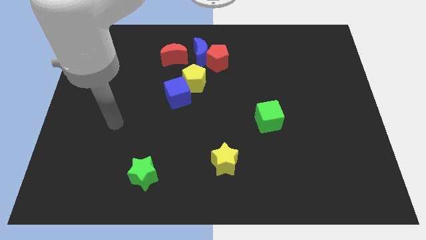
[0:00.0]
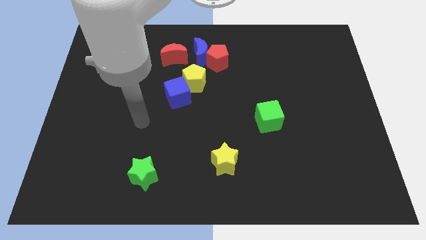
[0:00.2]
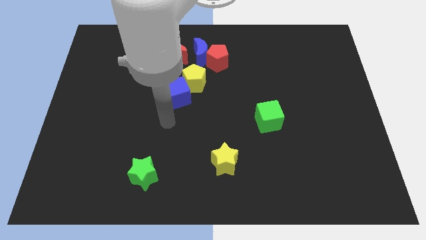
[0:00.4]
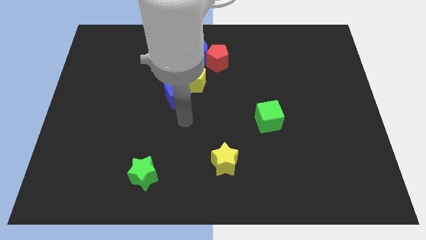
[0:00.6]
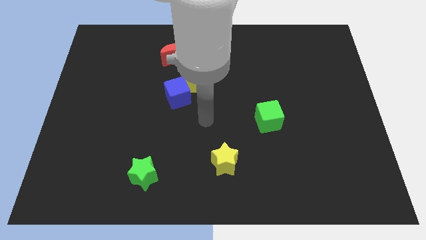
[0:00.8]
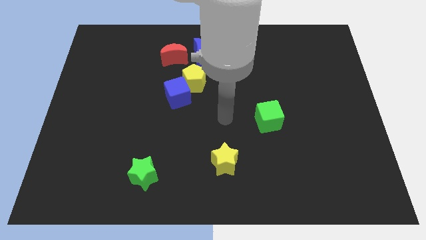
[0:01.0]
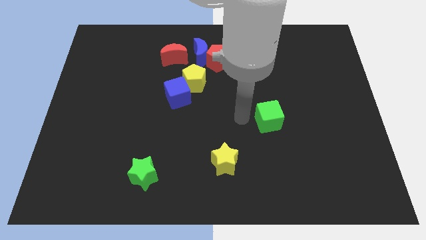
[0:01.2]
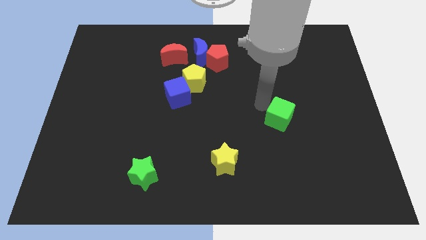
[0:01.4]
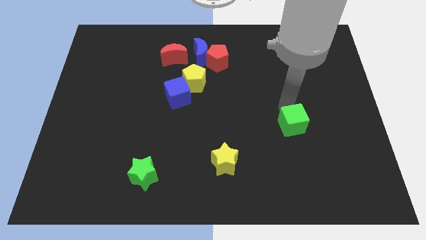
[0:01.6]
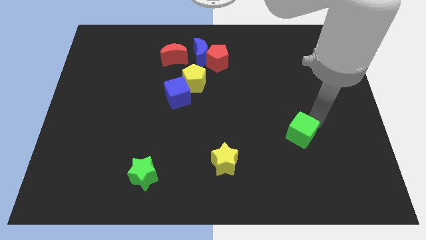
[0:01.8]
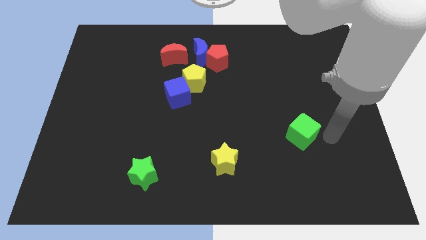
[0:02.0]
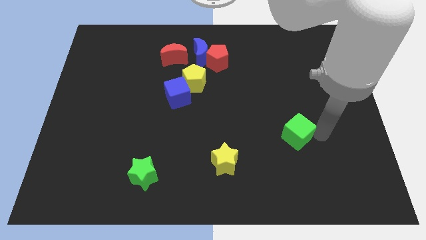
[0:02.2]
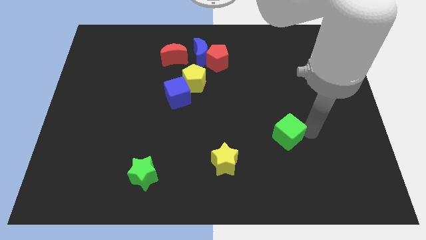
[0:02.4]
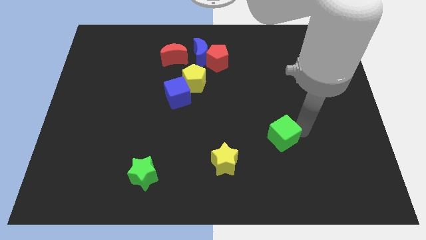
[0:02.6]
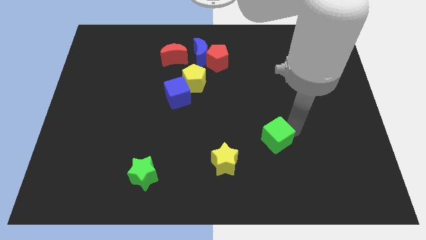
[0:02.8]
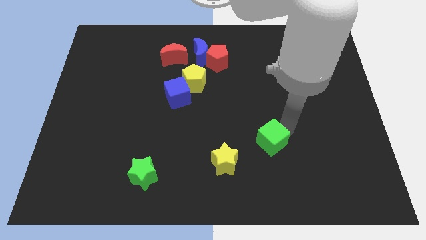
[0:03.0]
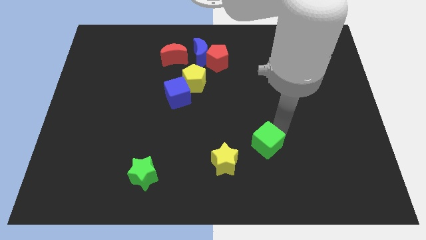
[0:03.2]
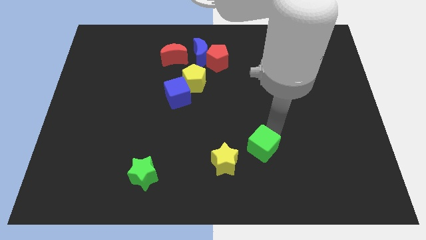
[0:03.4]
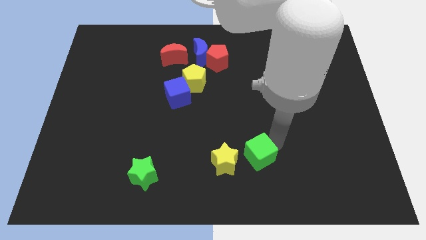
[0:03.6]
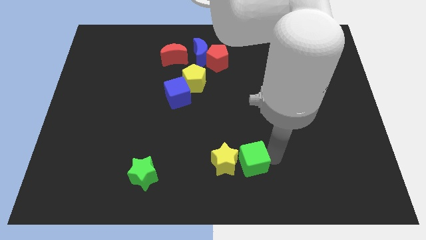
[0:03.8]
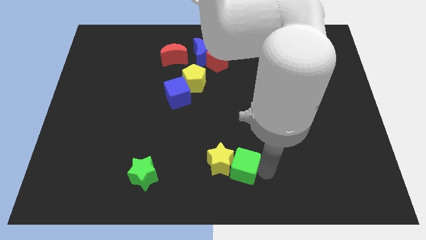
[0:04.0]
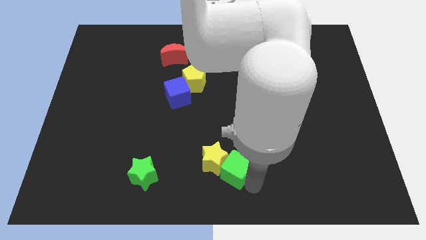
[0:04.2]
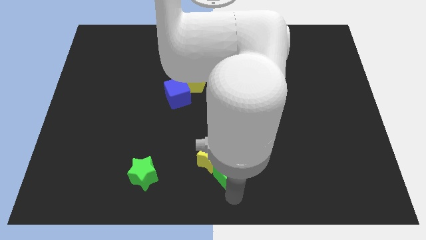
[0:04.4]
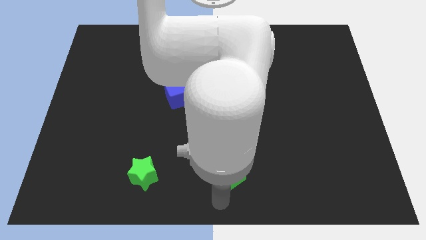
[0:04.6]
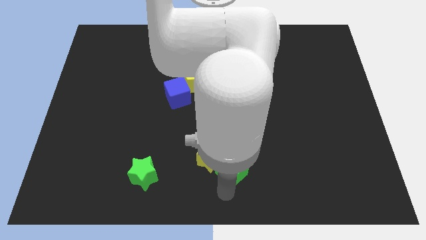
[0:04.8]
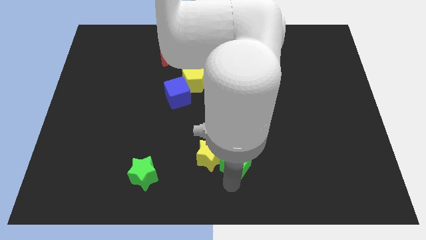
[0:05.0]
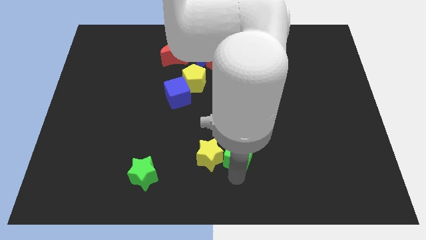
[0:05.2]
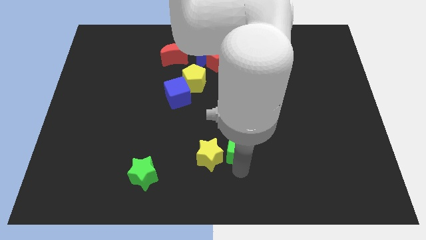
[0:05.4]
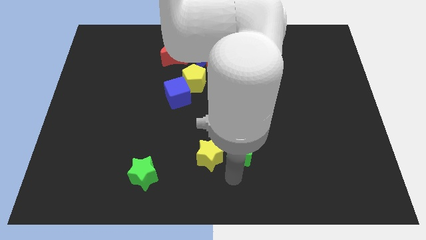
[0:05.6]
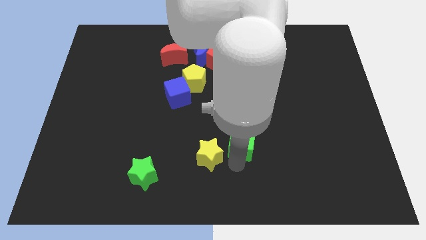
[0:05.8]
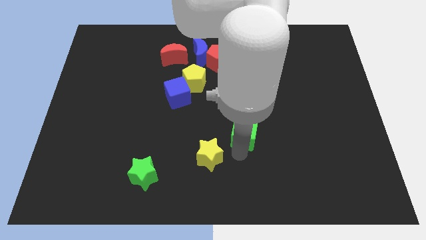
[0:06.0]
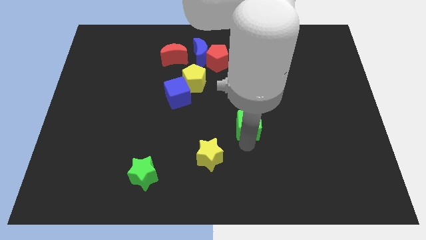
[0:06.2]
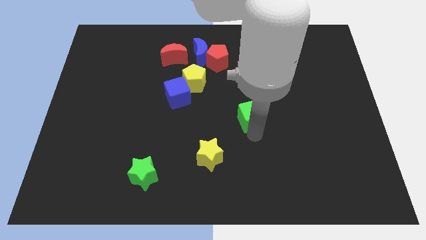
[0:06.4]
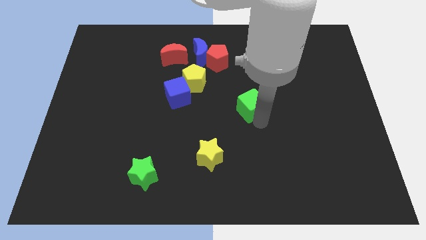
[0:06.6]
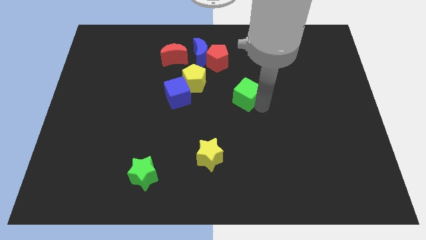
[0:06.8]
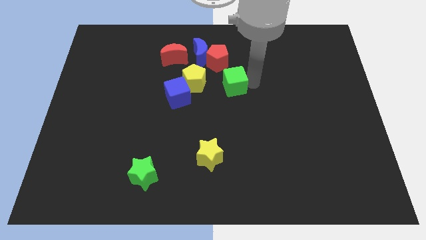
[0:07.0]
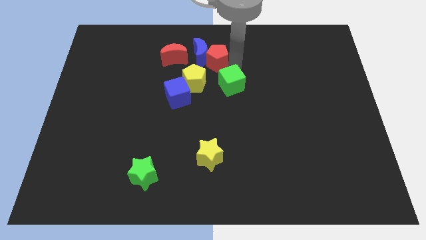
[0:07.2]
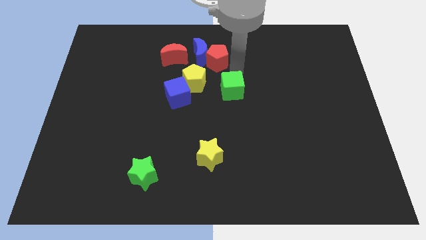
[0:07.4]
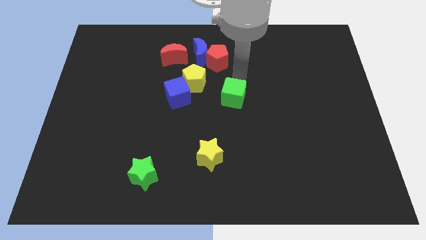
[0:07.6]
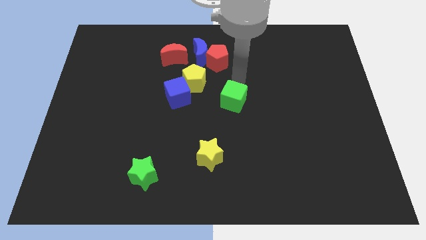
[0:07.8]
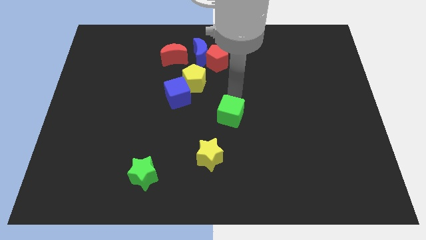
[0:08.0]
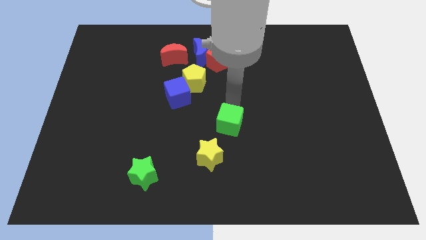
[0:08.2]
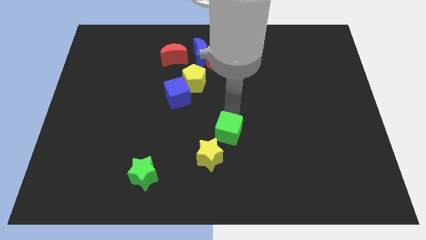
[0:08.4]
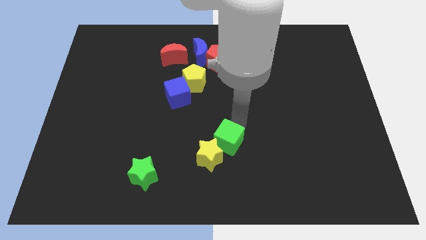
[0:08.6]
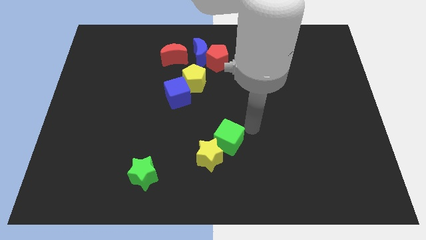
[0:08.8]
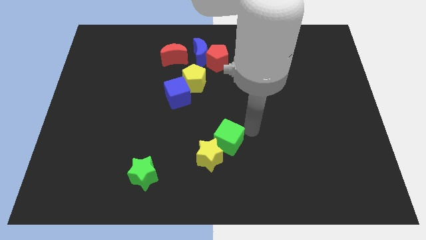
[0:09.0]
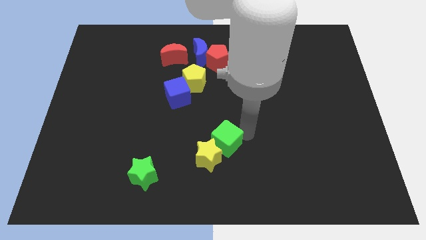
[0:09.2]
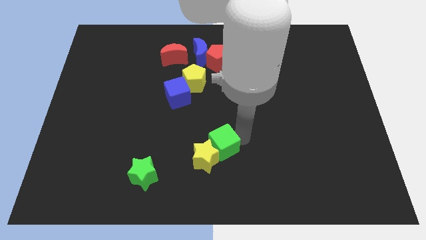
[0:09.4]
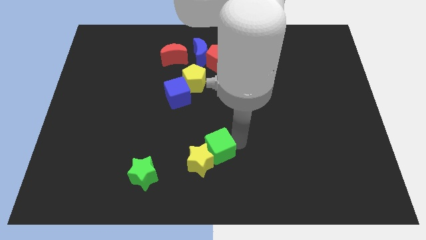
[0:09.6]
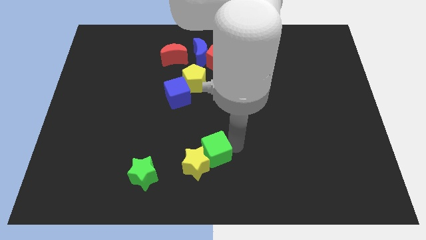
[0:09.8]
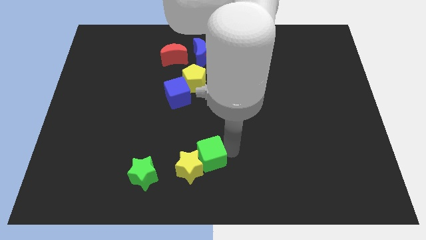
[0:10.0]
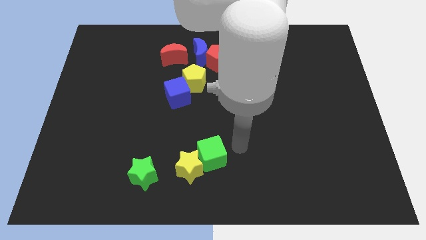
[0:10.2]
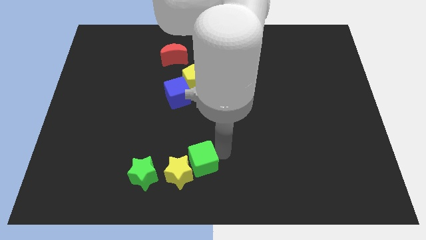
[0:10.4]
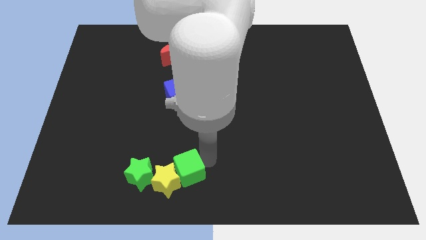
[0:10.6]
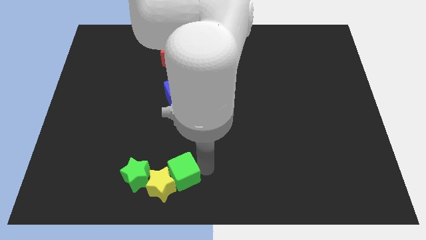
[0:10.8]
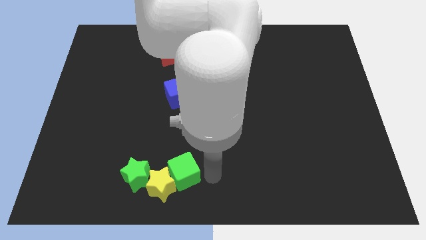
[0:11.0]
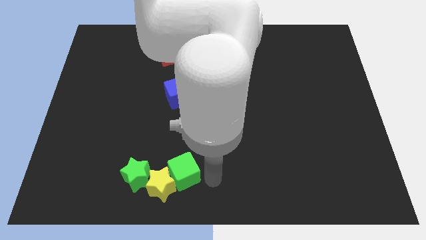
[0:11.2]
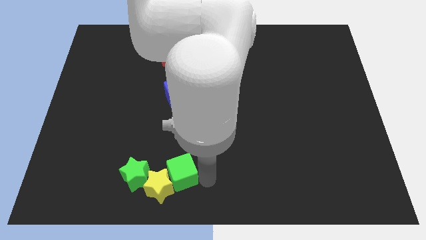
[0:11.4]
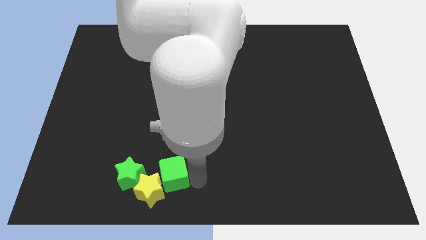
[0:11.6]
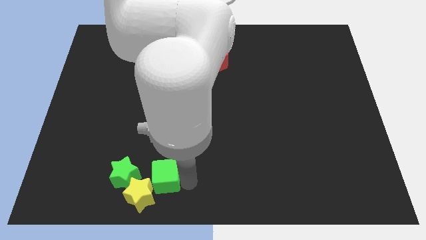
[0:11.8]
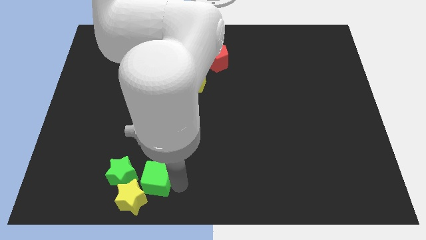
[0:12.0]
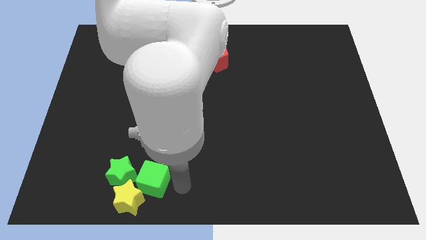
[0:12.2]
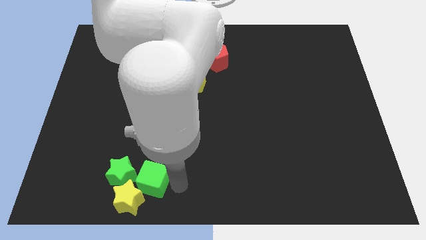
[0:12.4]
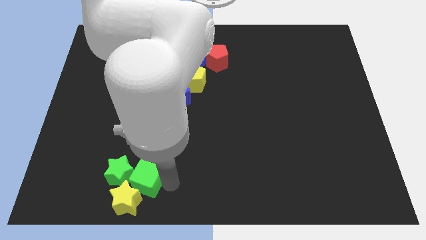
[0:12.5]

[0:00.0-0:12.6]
push the green cube close to the green star

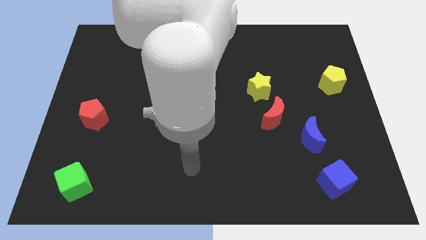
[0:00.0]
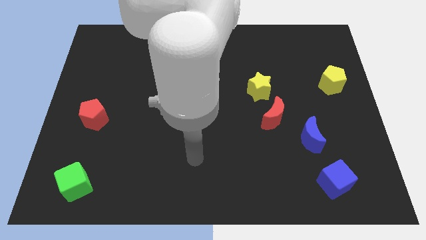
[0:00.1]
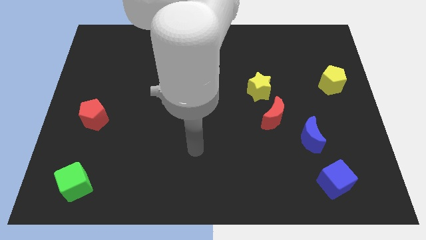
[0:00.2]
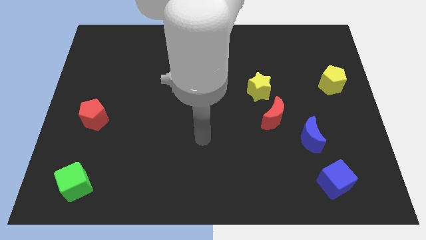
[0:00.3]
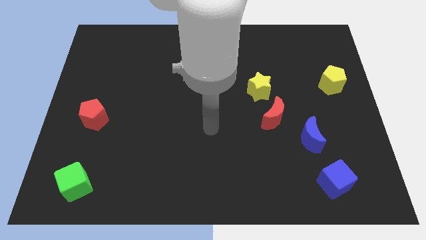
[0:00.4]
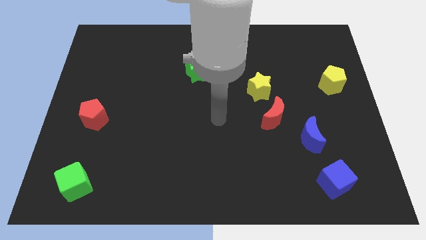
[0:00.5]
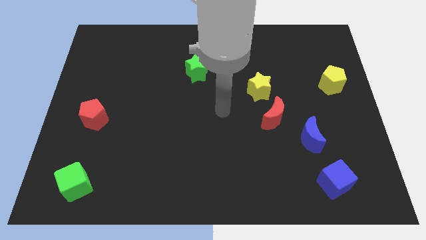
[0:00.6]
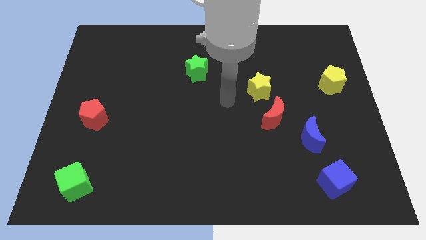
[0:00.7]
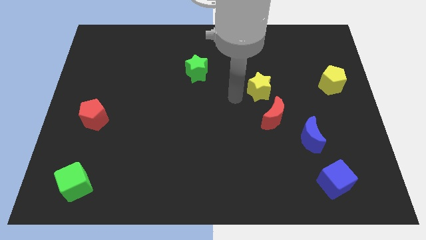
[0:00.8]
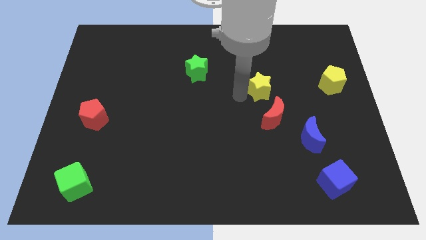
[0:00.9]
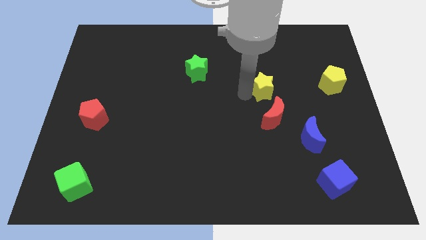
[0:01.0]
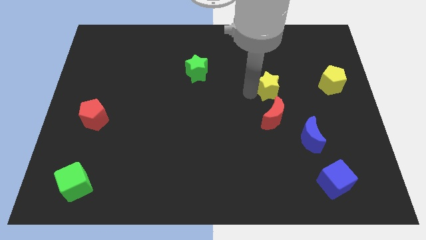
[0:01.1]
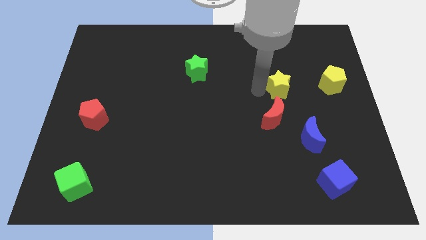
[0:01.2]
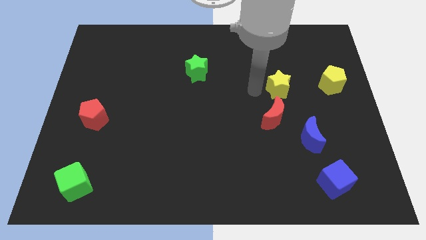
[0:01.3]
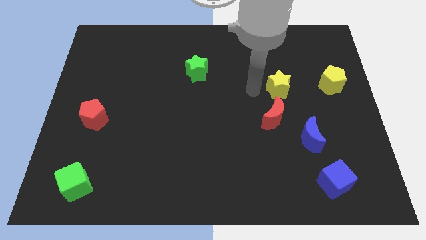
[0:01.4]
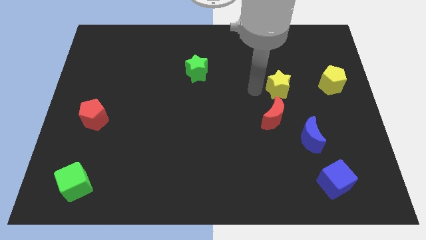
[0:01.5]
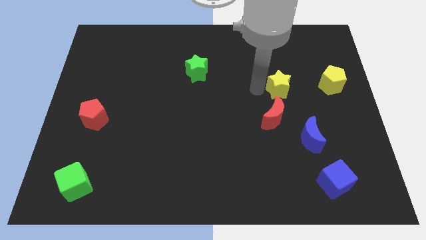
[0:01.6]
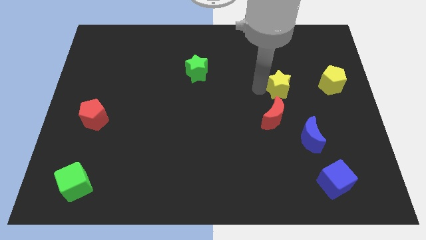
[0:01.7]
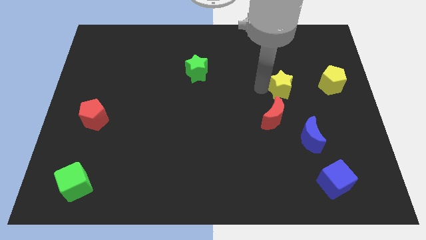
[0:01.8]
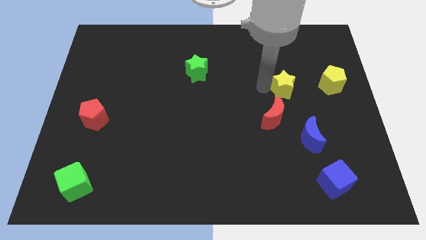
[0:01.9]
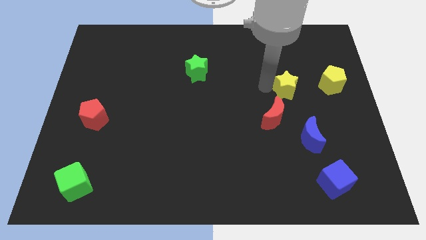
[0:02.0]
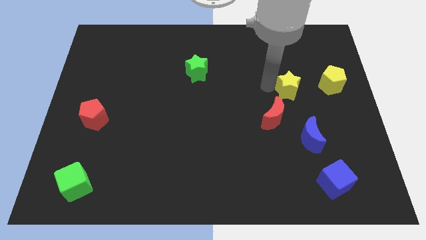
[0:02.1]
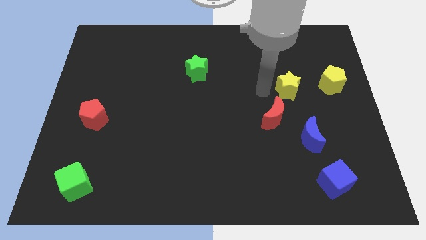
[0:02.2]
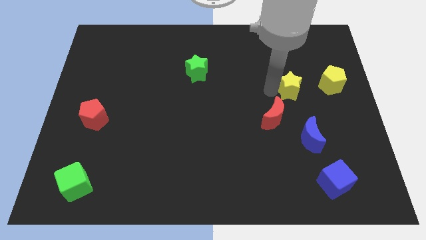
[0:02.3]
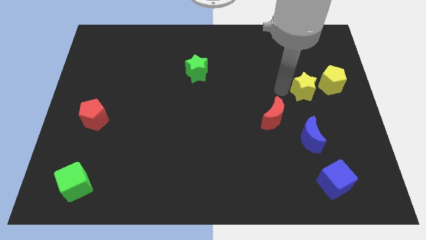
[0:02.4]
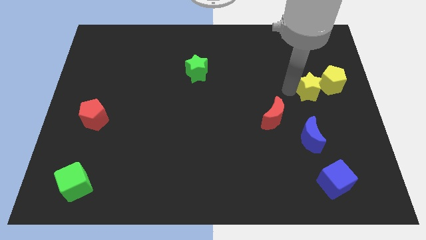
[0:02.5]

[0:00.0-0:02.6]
slide the yellow star next to the yellow pentagon
